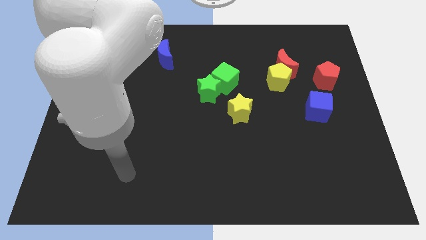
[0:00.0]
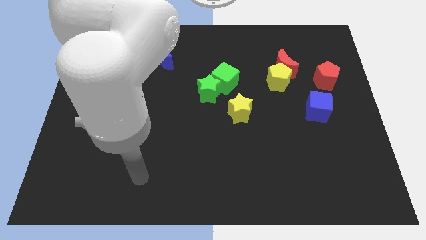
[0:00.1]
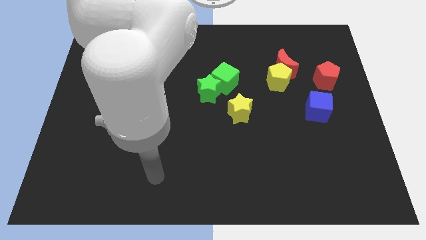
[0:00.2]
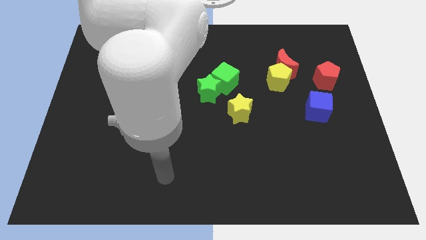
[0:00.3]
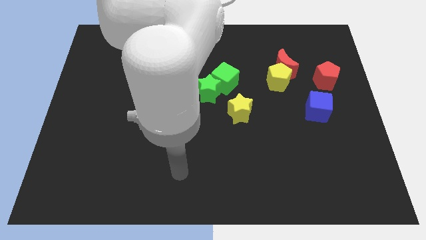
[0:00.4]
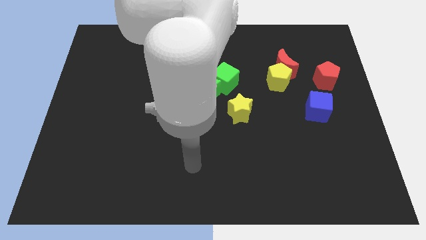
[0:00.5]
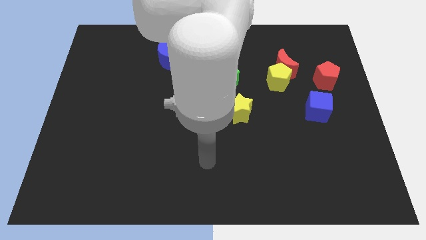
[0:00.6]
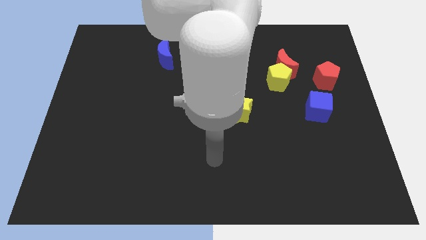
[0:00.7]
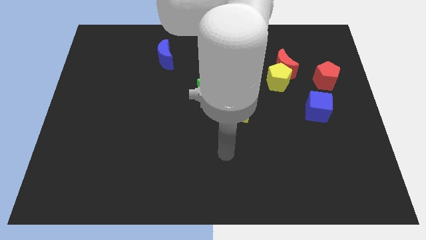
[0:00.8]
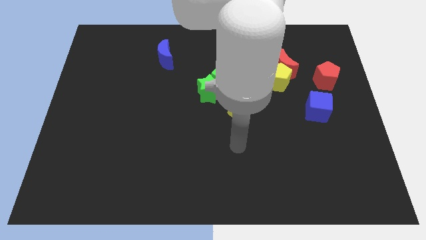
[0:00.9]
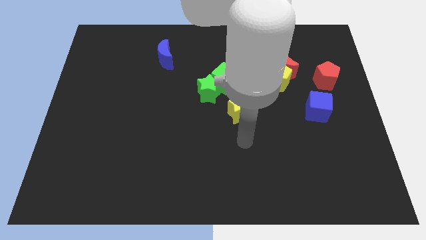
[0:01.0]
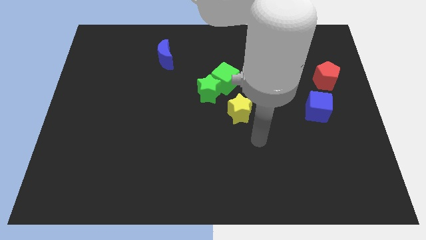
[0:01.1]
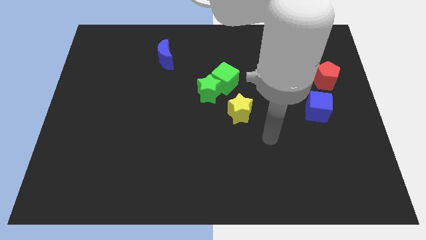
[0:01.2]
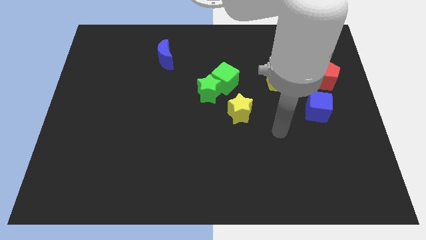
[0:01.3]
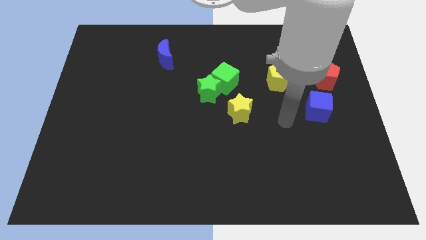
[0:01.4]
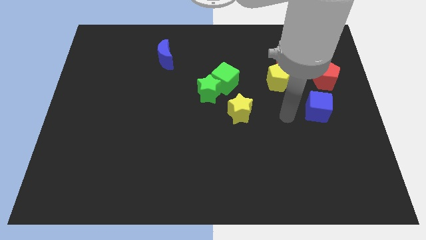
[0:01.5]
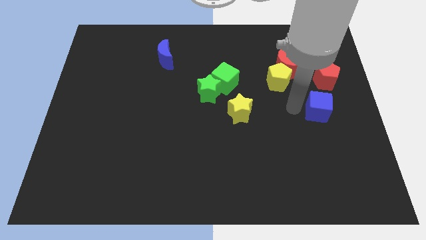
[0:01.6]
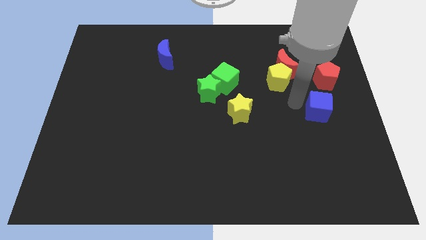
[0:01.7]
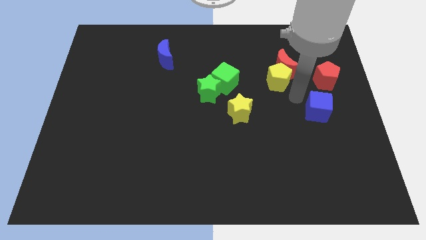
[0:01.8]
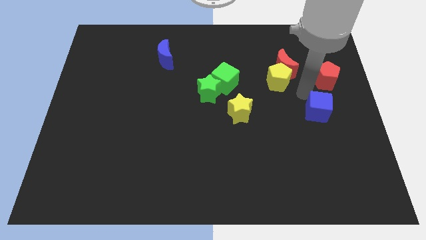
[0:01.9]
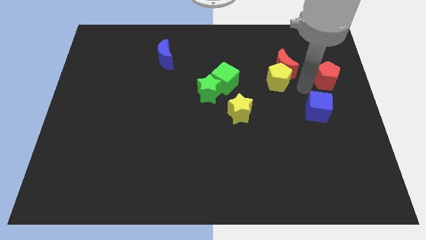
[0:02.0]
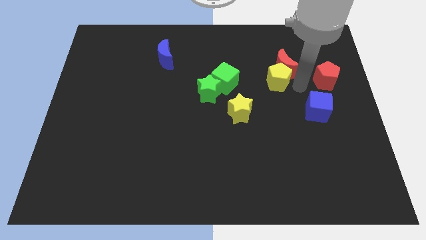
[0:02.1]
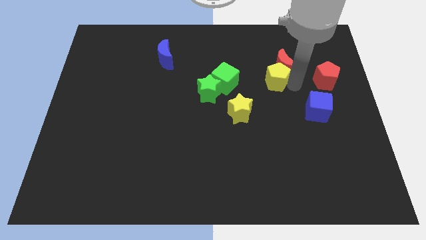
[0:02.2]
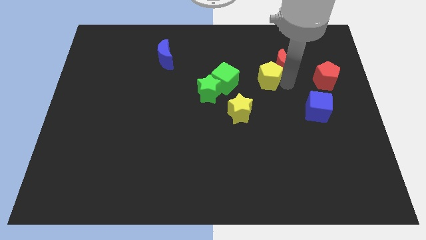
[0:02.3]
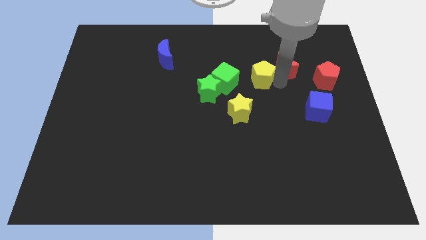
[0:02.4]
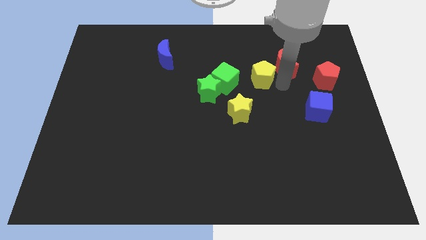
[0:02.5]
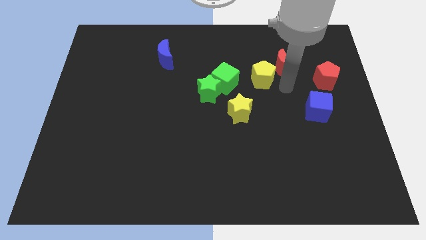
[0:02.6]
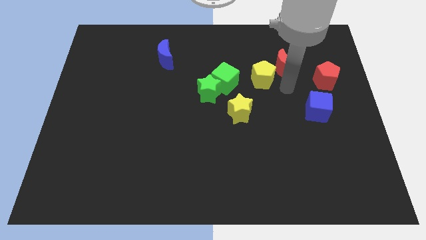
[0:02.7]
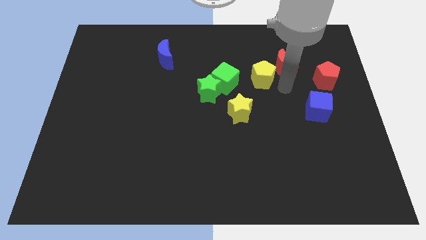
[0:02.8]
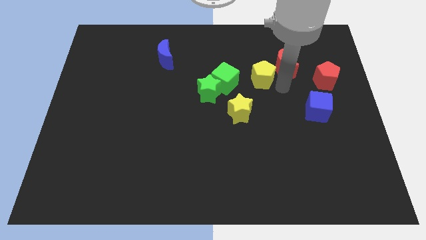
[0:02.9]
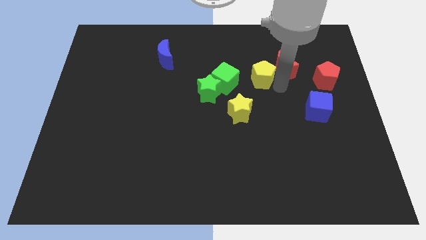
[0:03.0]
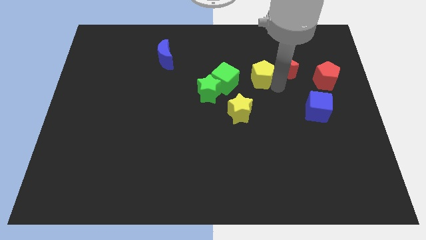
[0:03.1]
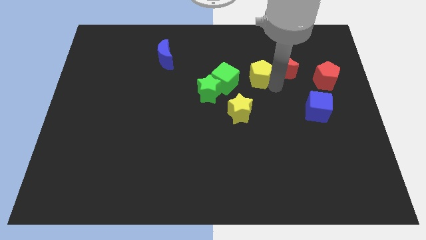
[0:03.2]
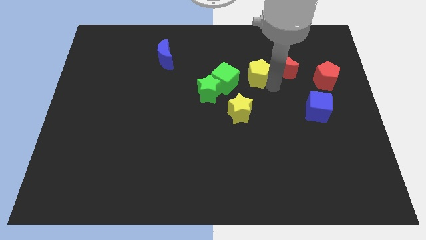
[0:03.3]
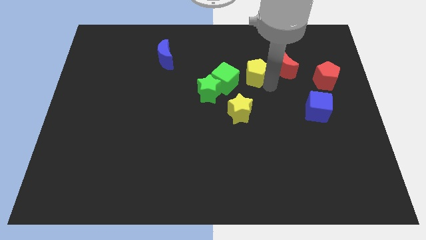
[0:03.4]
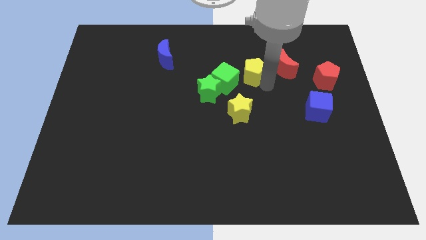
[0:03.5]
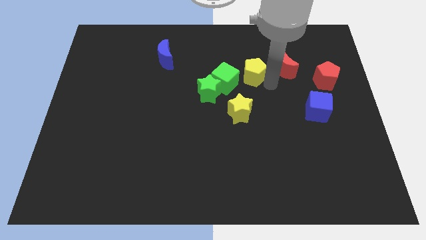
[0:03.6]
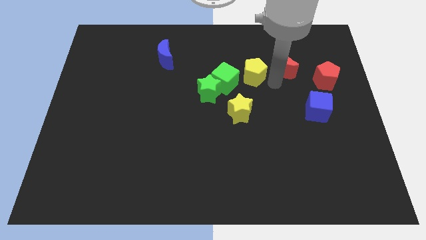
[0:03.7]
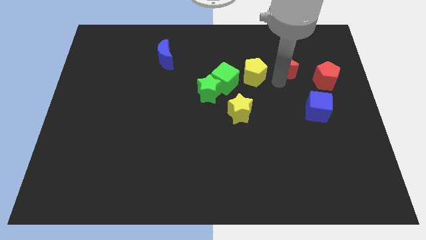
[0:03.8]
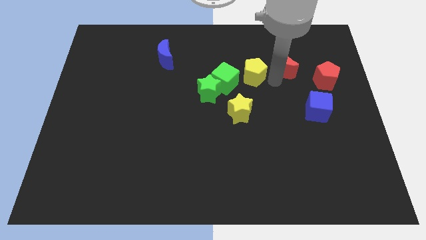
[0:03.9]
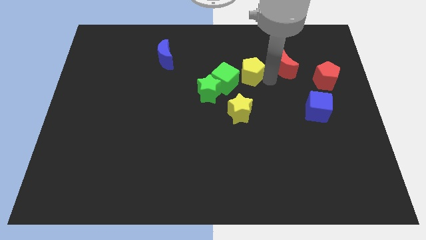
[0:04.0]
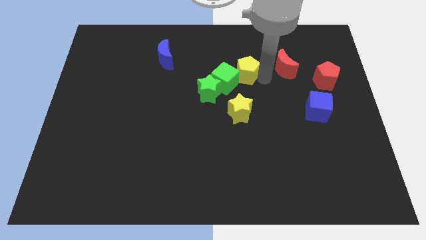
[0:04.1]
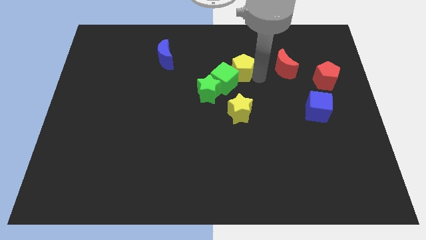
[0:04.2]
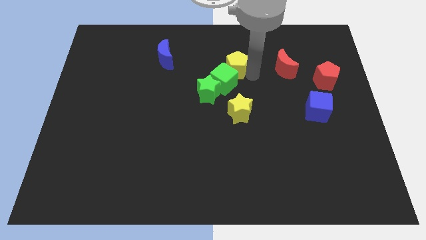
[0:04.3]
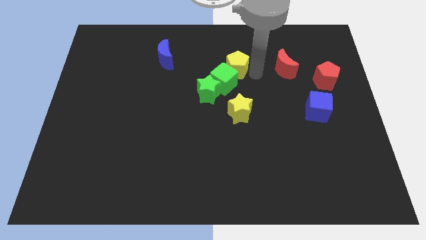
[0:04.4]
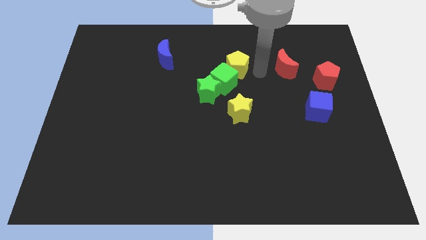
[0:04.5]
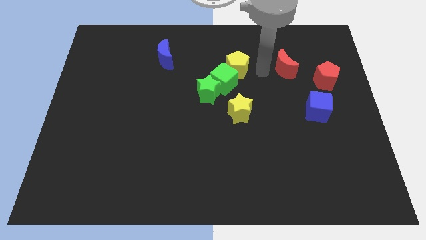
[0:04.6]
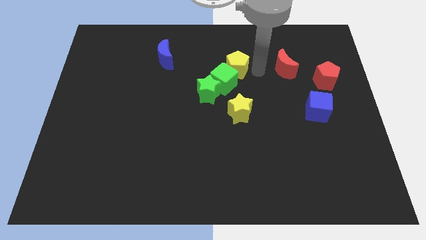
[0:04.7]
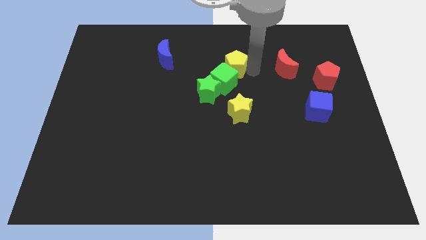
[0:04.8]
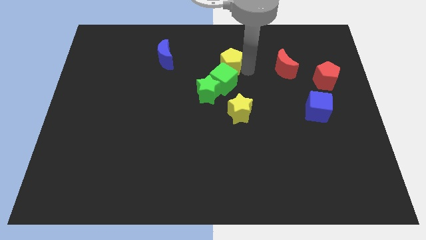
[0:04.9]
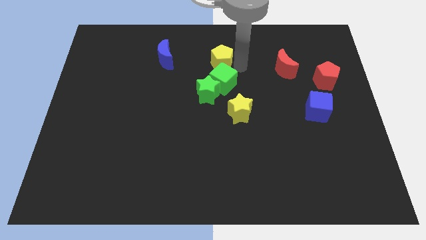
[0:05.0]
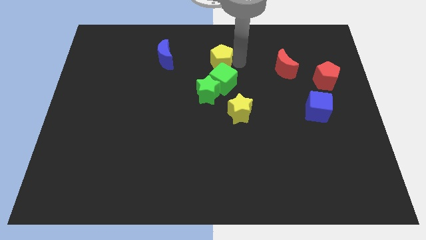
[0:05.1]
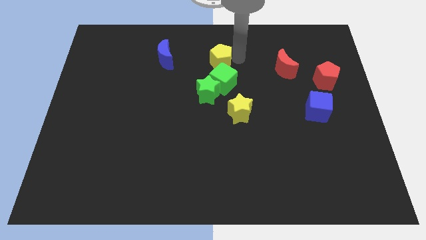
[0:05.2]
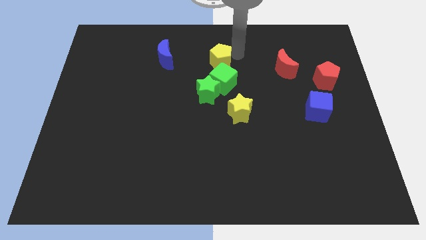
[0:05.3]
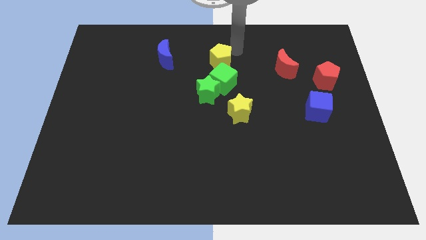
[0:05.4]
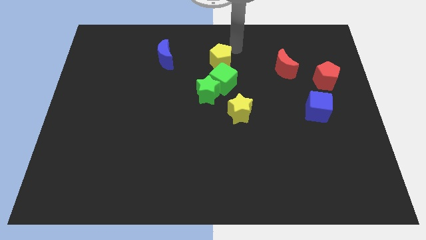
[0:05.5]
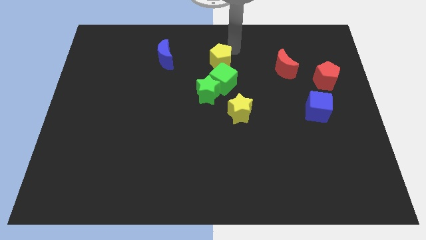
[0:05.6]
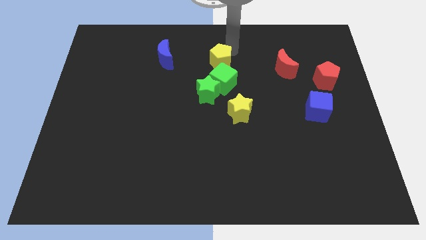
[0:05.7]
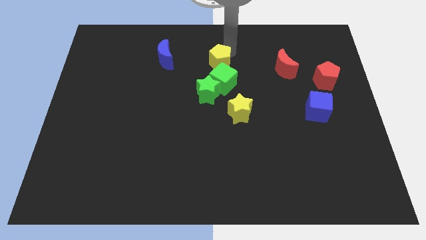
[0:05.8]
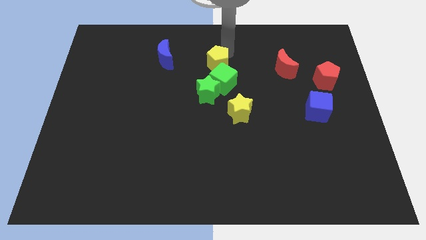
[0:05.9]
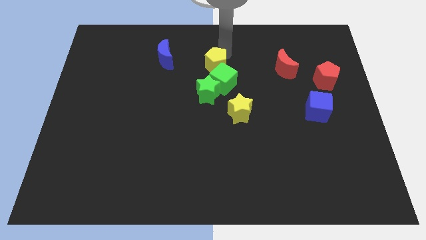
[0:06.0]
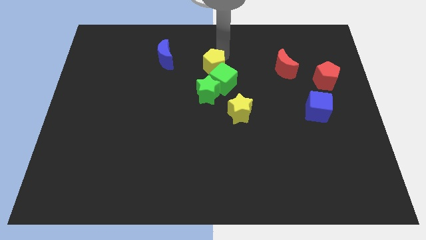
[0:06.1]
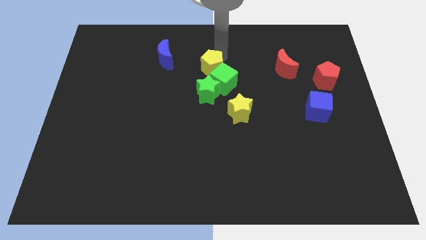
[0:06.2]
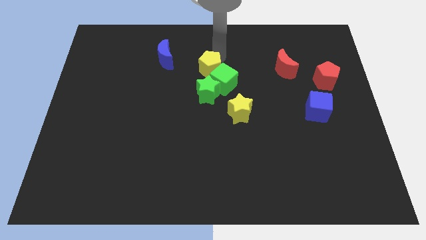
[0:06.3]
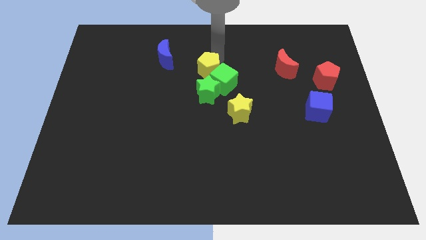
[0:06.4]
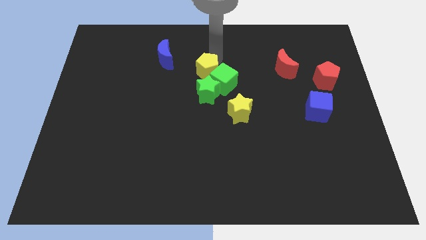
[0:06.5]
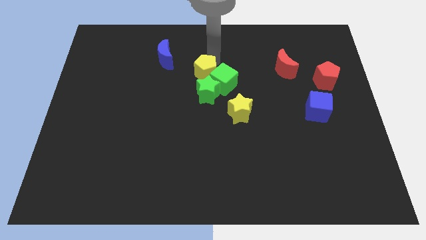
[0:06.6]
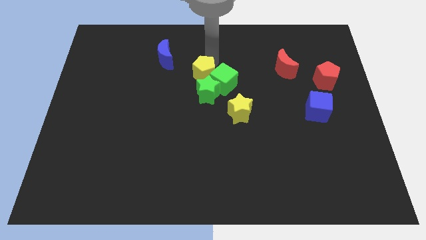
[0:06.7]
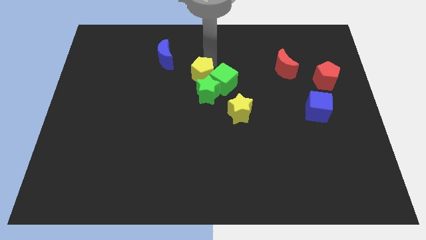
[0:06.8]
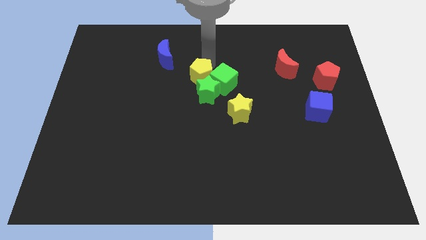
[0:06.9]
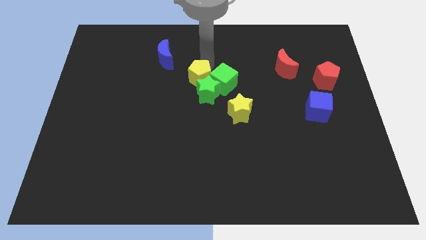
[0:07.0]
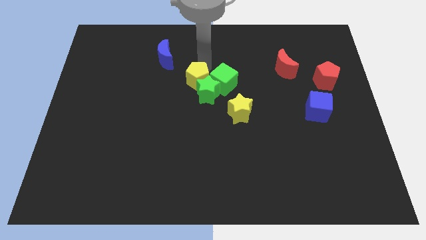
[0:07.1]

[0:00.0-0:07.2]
slide the yellow pentagon left

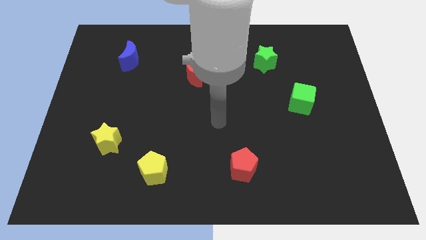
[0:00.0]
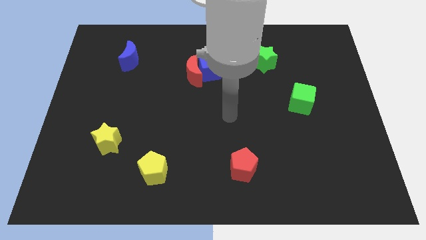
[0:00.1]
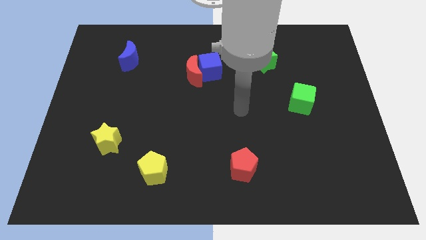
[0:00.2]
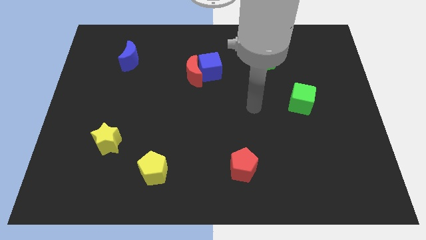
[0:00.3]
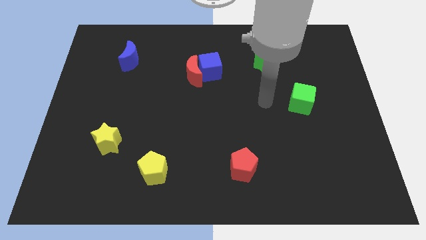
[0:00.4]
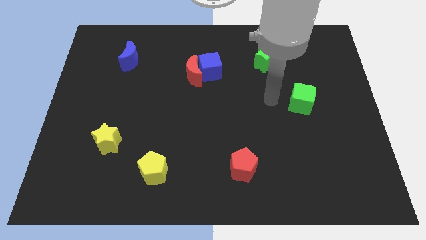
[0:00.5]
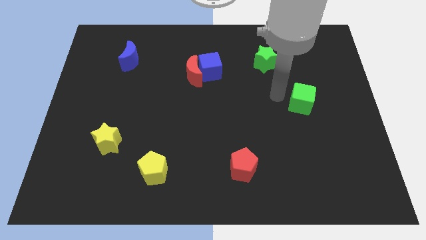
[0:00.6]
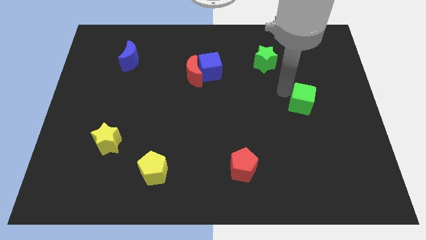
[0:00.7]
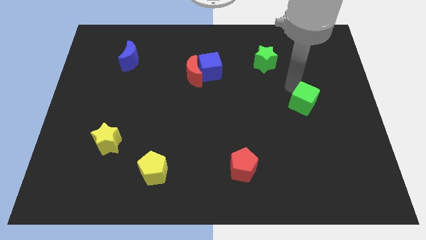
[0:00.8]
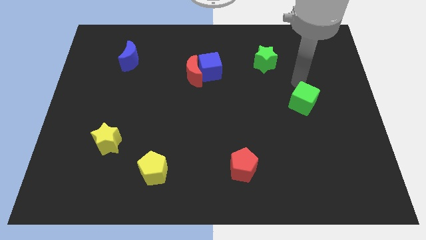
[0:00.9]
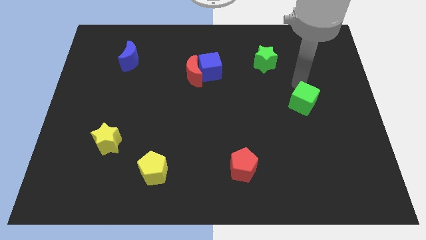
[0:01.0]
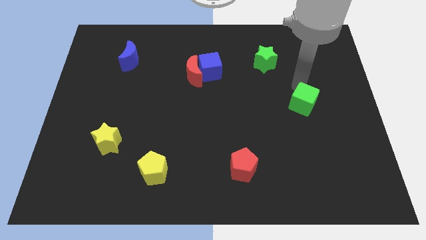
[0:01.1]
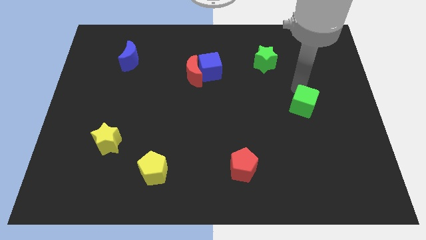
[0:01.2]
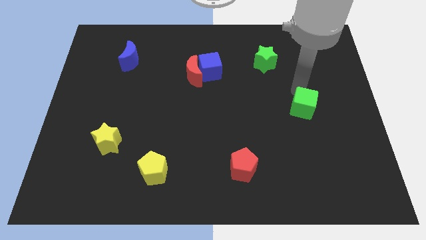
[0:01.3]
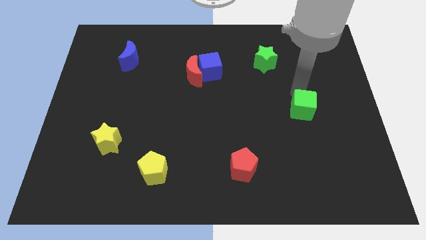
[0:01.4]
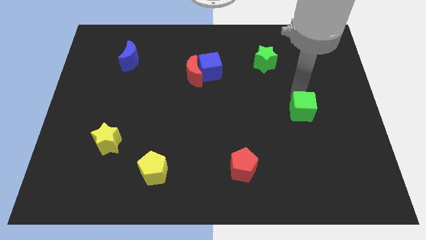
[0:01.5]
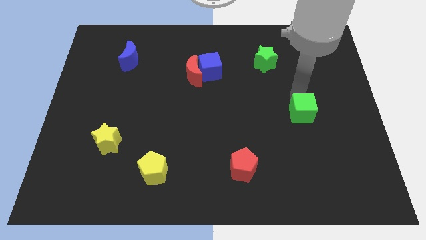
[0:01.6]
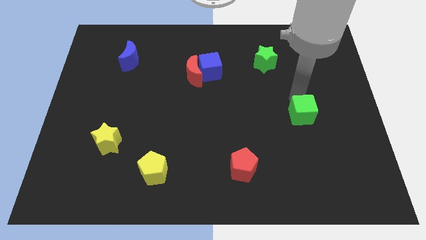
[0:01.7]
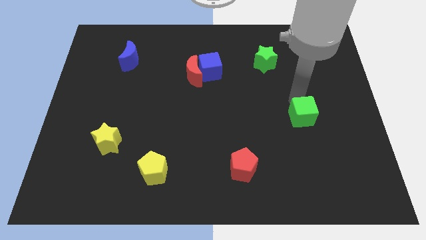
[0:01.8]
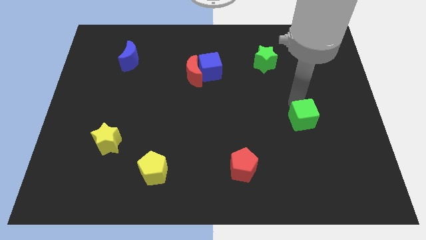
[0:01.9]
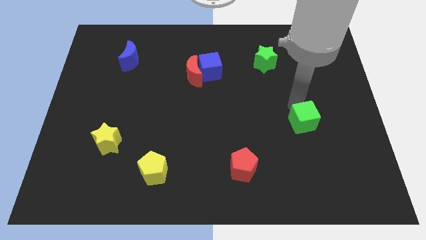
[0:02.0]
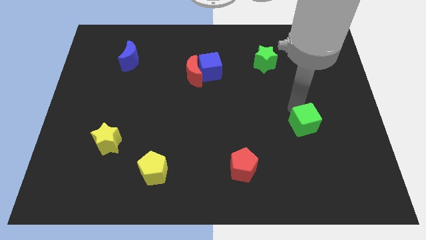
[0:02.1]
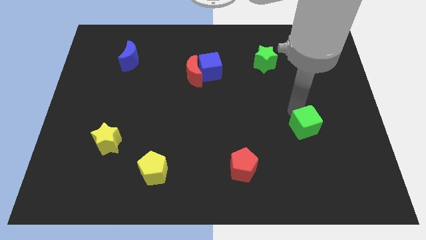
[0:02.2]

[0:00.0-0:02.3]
slide the green cube down slightly
